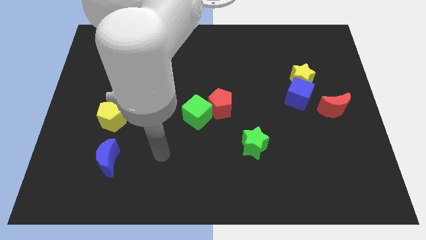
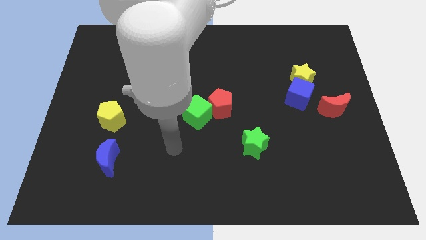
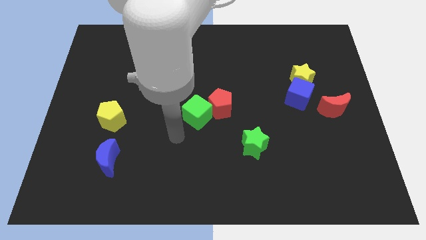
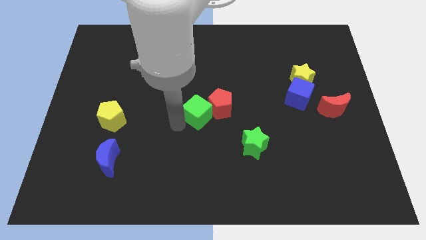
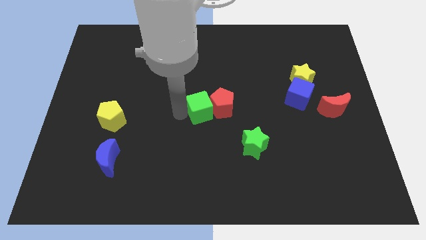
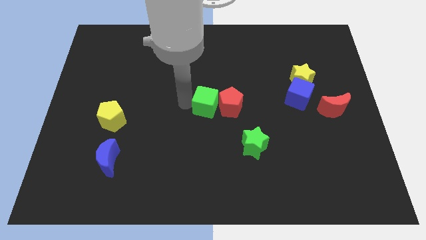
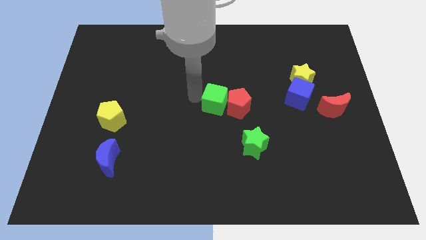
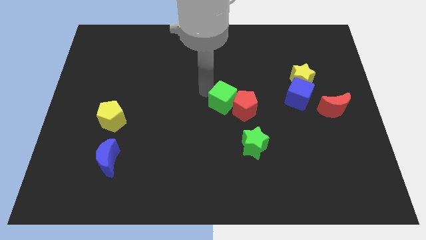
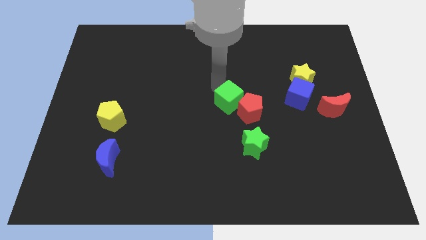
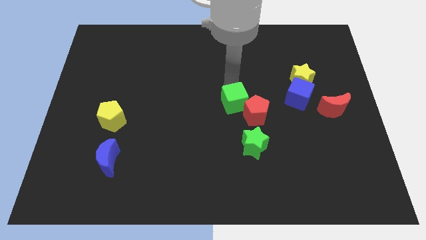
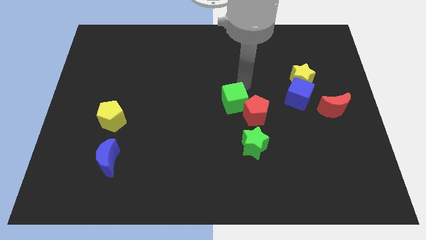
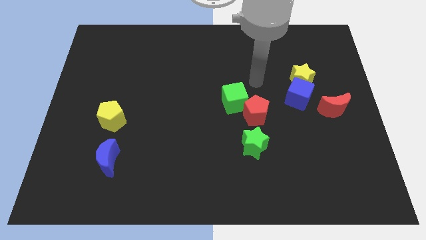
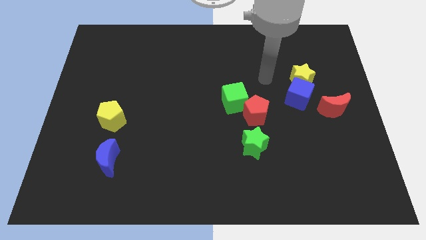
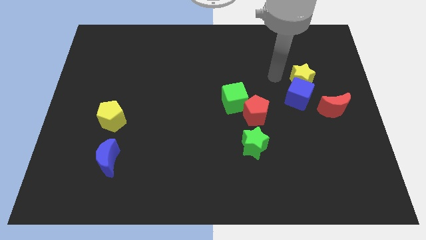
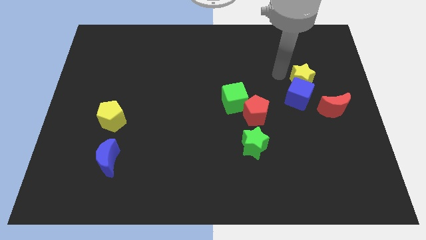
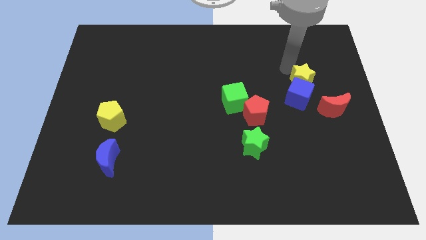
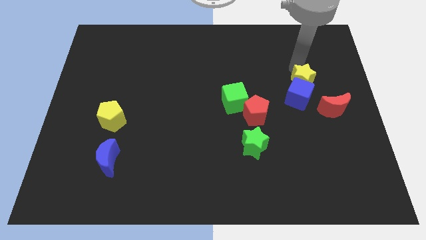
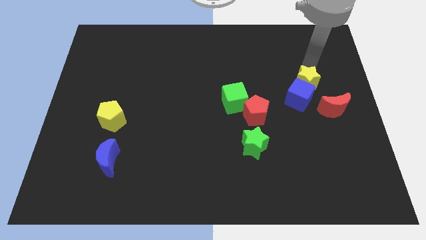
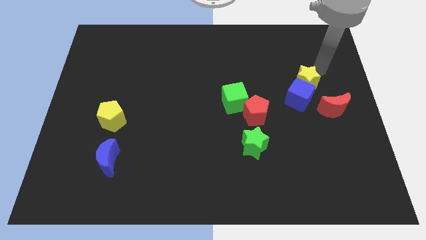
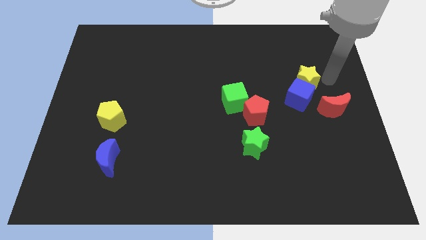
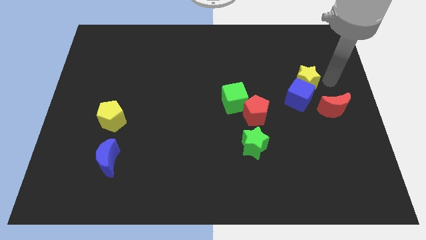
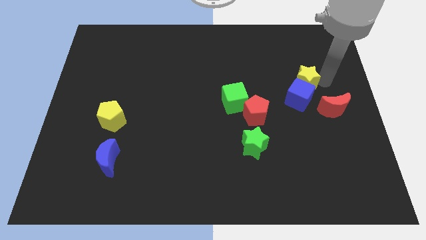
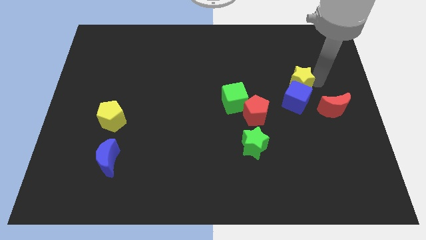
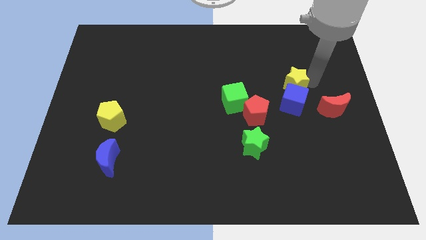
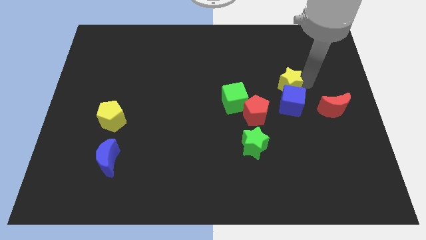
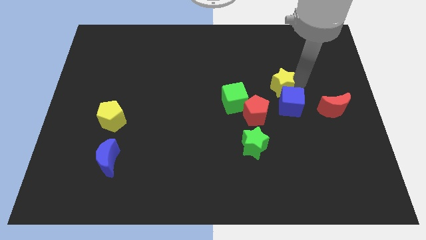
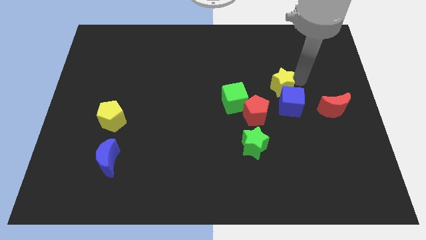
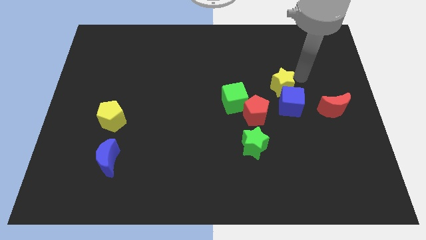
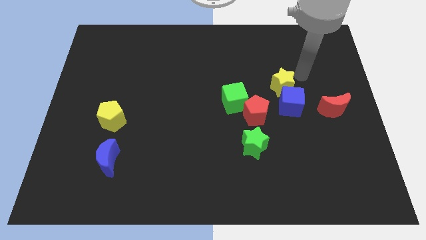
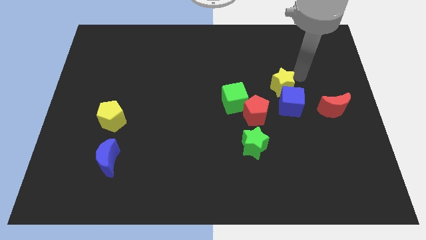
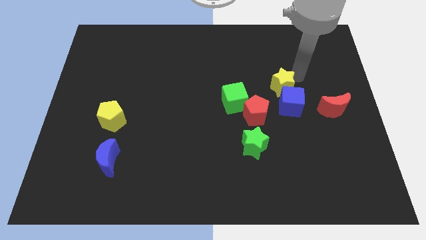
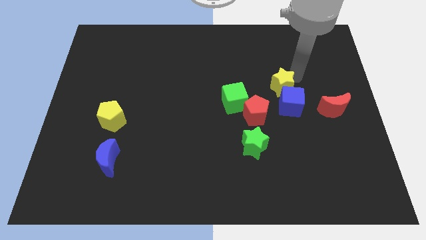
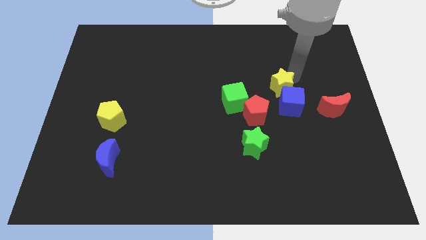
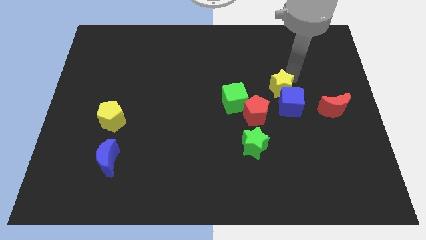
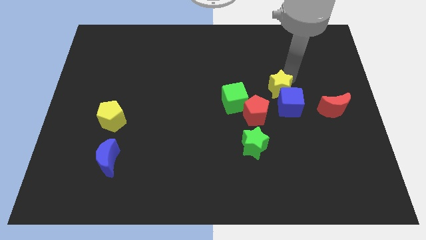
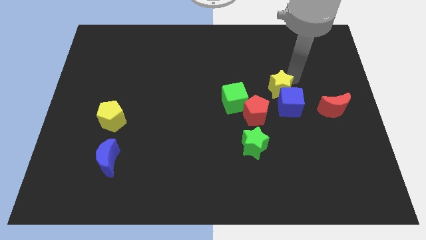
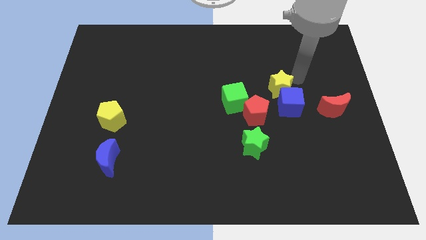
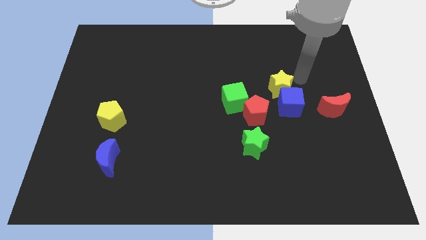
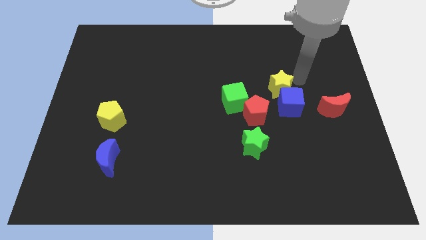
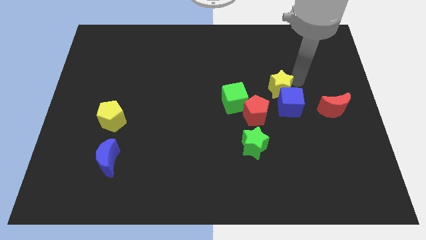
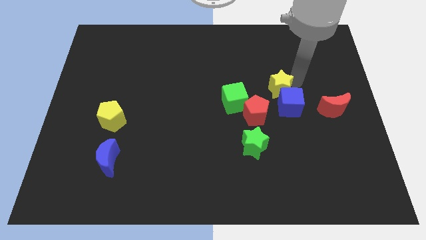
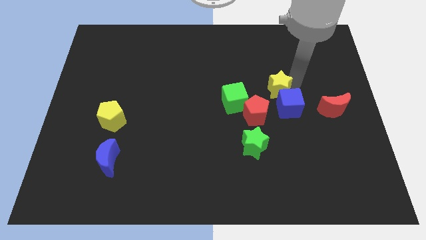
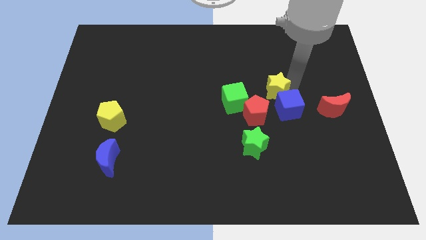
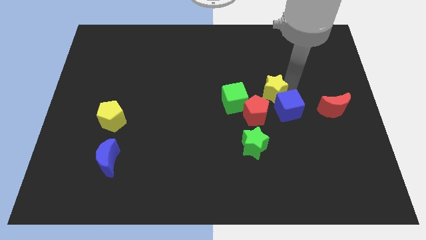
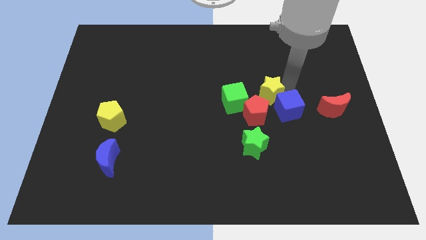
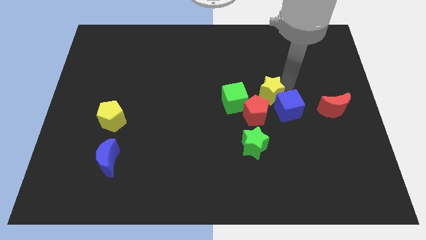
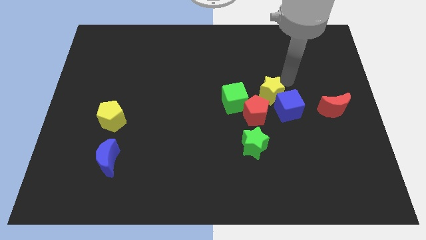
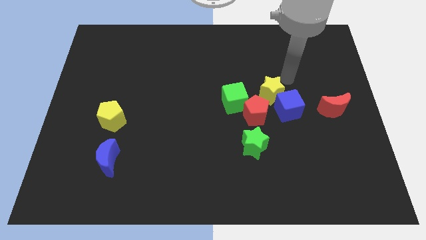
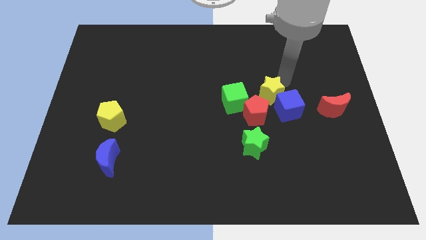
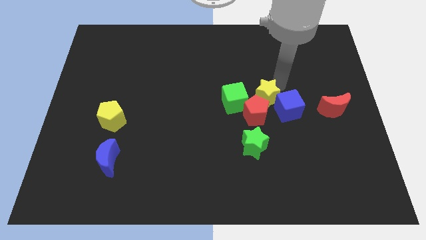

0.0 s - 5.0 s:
put the yellow star to the top side of the green star

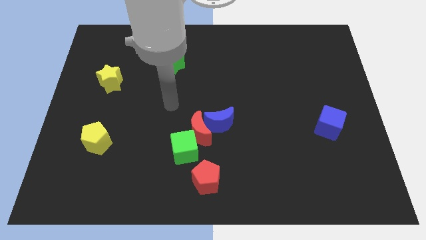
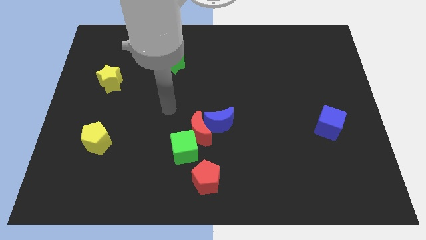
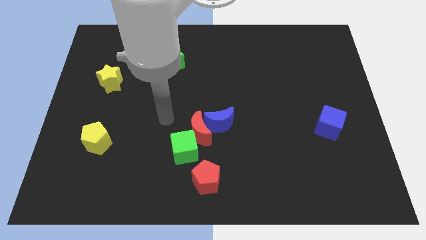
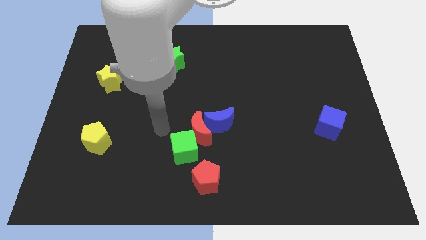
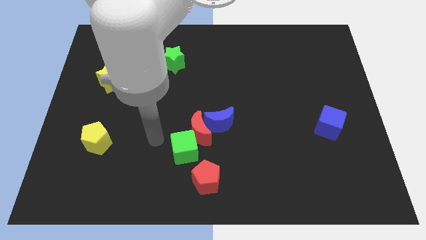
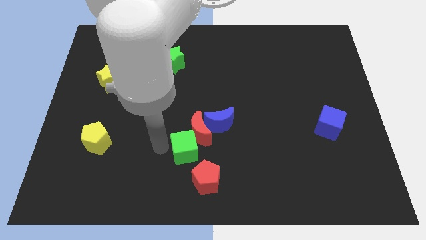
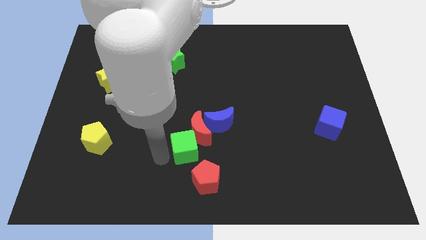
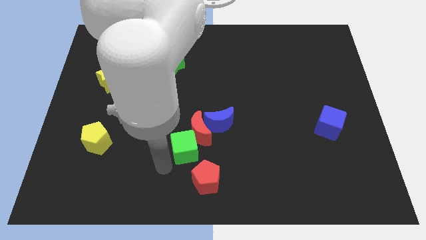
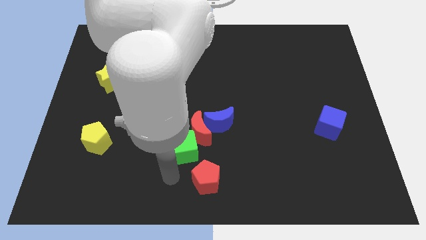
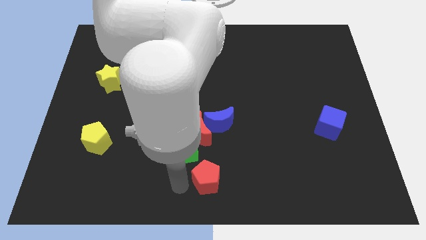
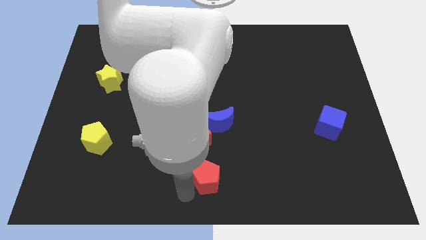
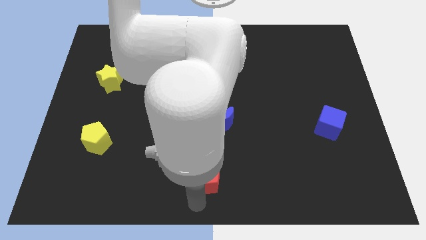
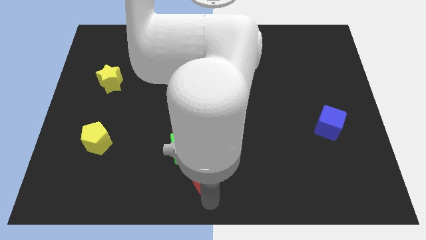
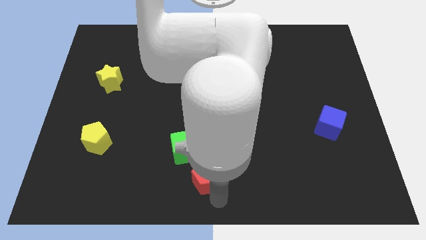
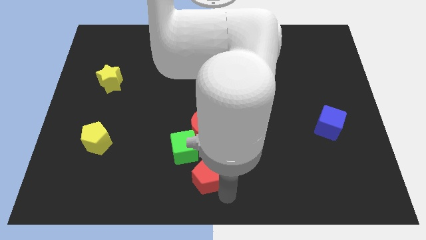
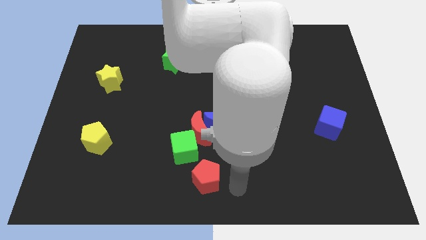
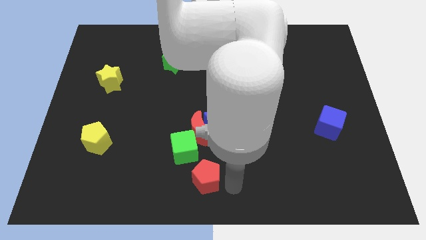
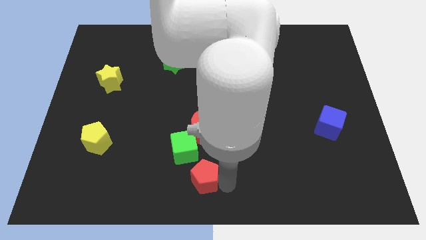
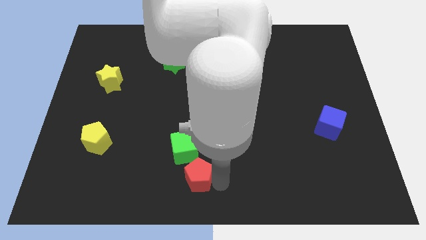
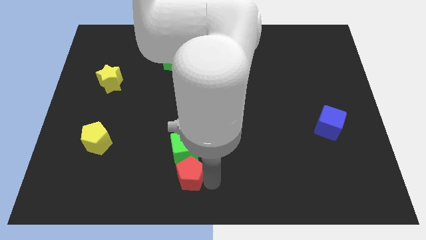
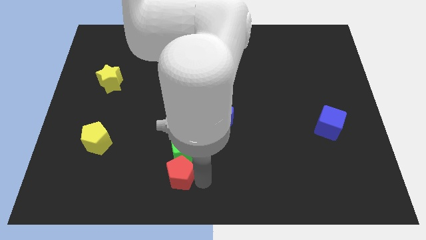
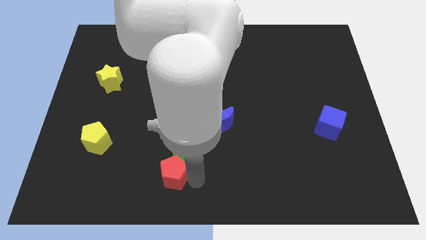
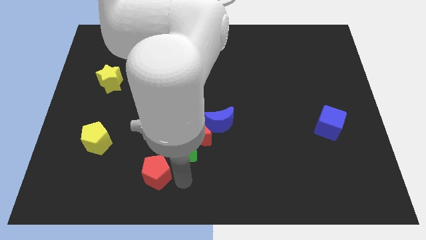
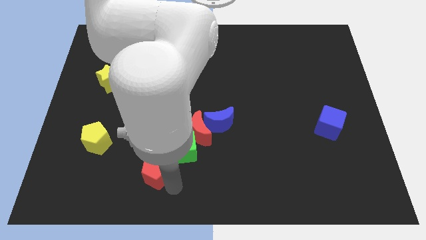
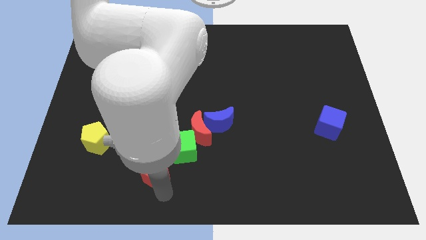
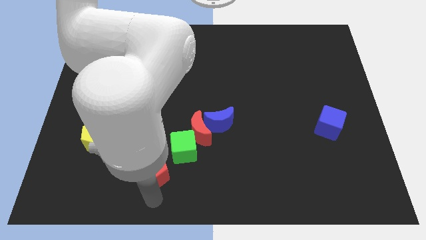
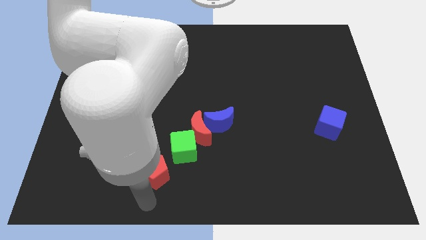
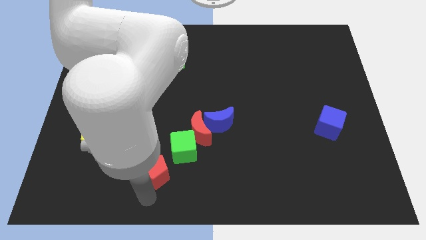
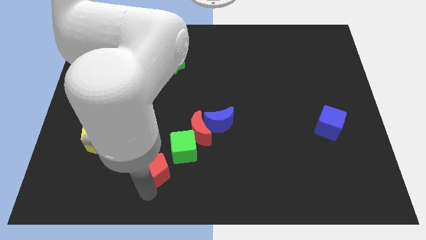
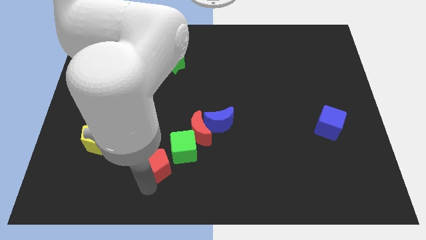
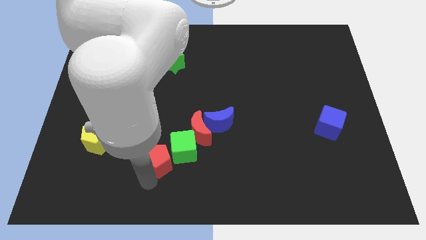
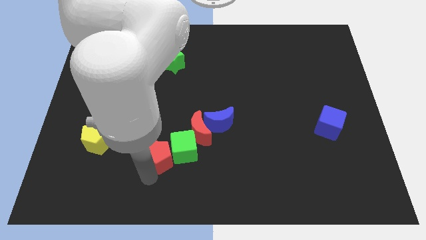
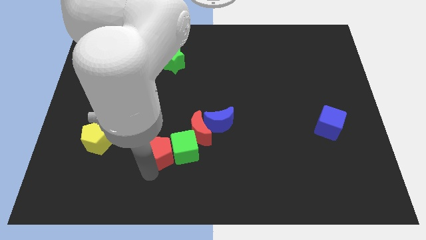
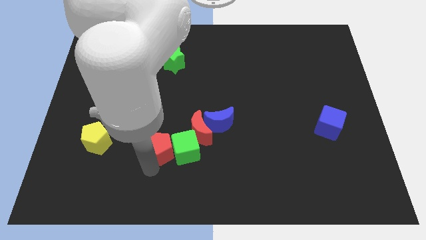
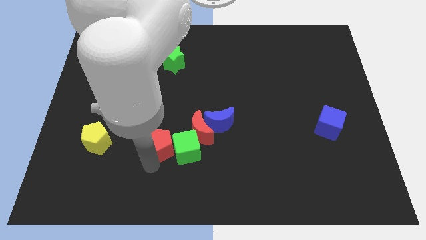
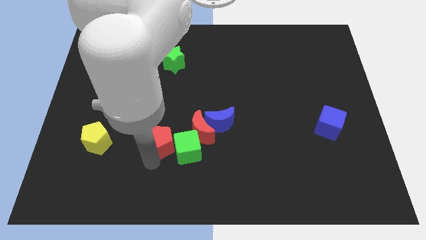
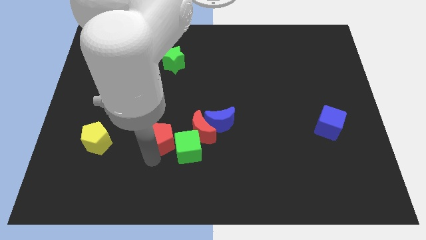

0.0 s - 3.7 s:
put the red pentagon left of the blue moon
